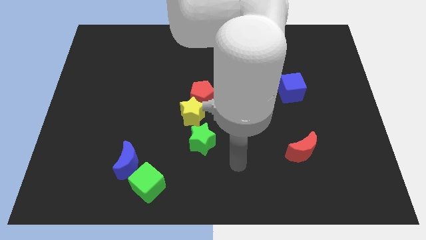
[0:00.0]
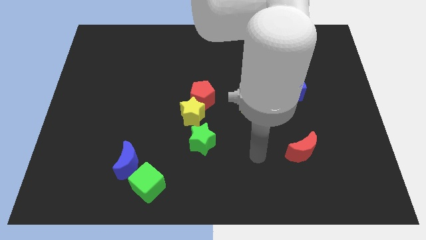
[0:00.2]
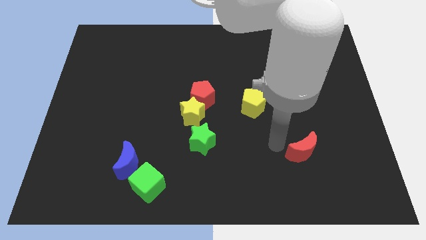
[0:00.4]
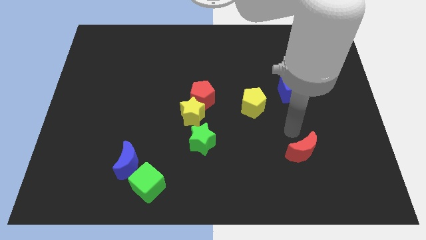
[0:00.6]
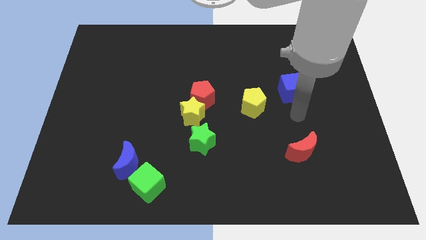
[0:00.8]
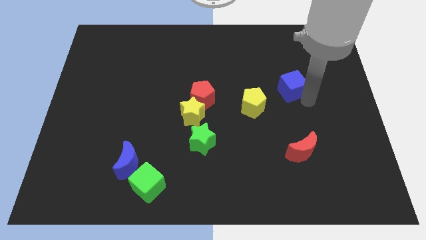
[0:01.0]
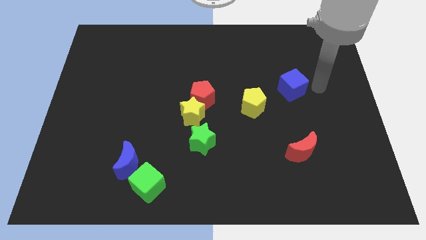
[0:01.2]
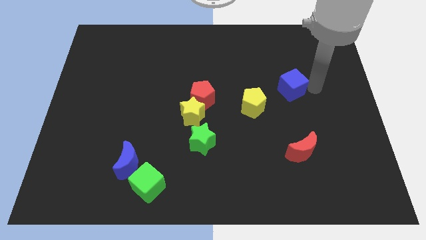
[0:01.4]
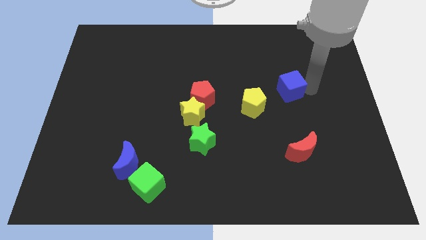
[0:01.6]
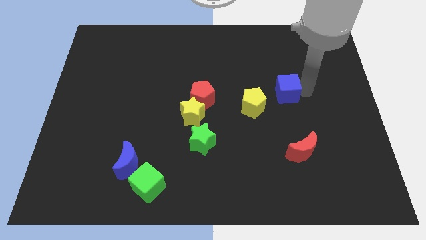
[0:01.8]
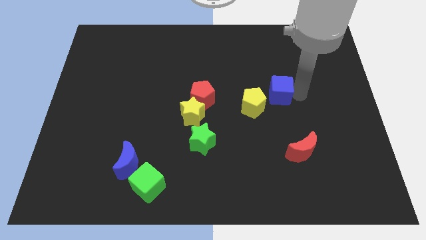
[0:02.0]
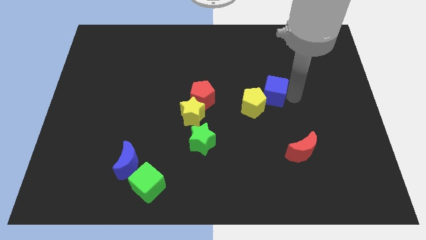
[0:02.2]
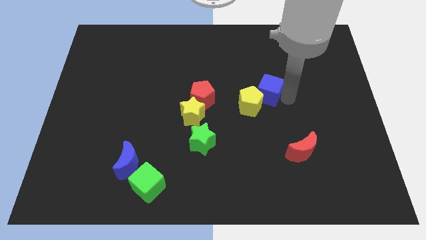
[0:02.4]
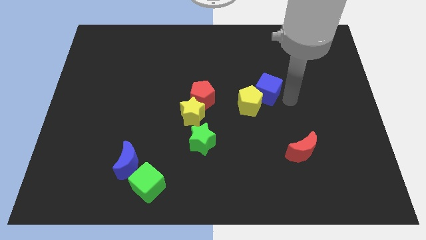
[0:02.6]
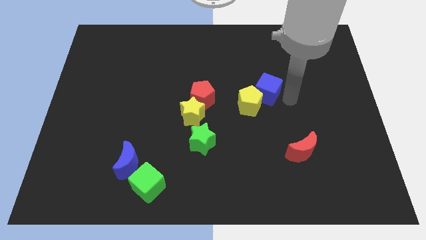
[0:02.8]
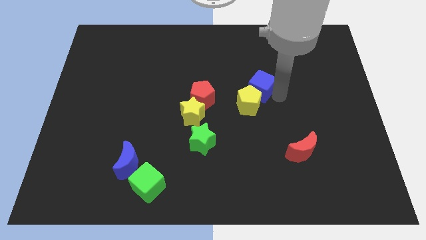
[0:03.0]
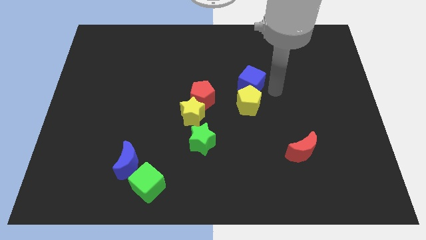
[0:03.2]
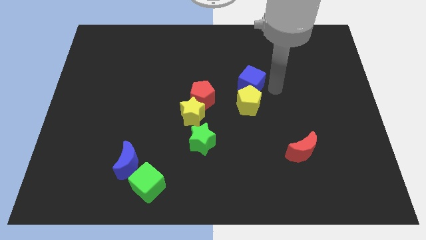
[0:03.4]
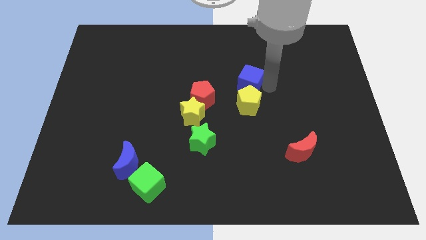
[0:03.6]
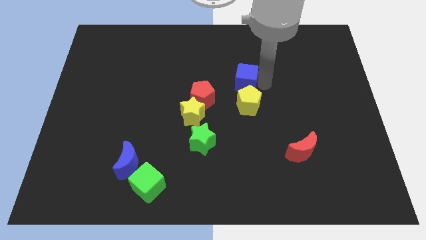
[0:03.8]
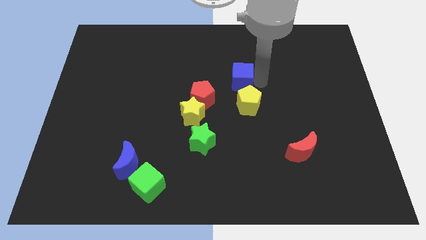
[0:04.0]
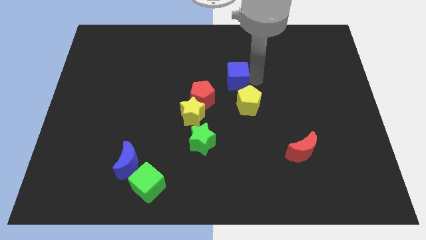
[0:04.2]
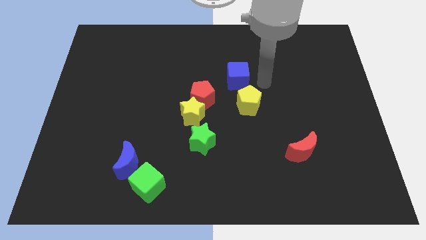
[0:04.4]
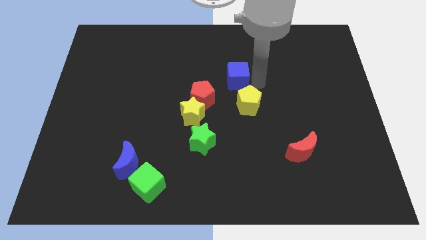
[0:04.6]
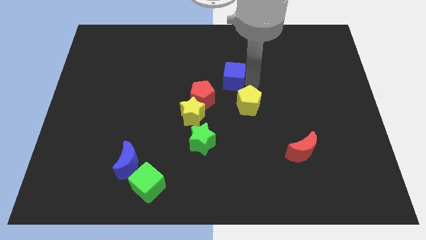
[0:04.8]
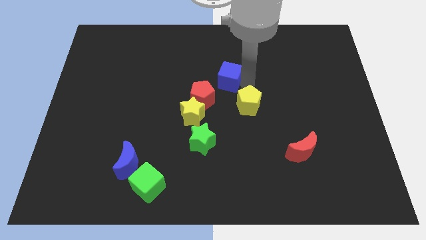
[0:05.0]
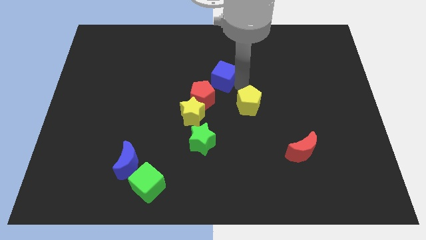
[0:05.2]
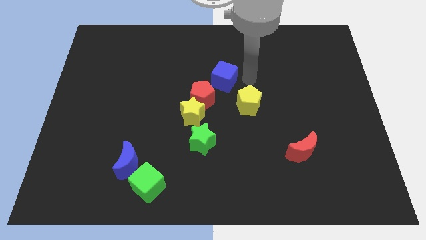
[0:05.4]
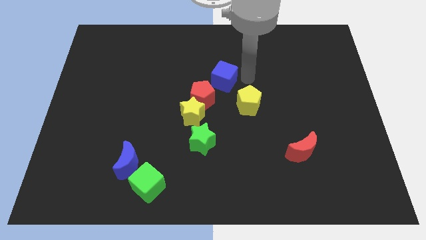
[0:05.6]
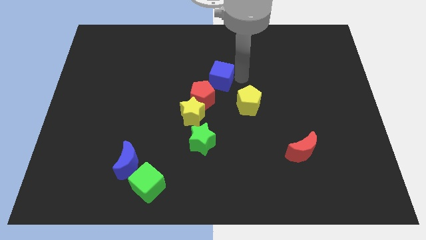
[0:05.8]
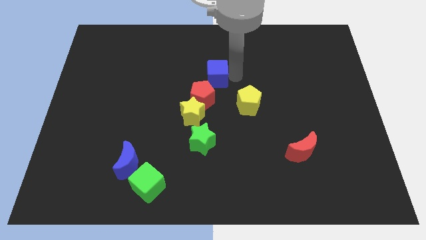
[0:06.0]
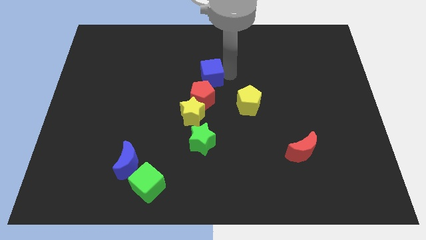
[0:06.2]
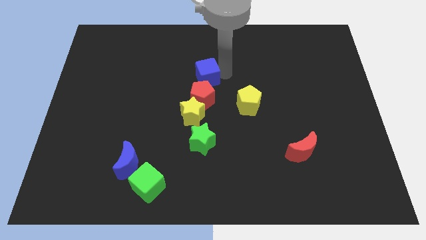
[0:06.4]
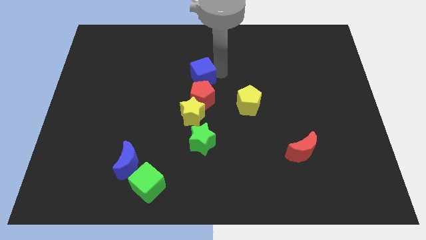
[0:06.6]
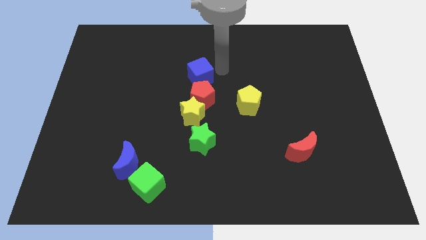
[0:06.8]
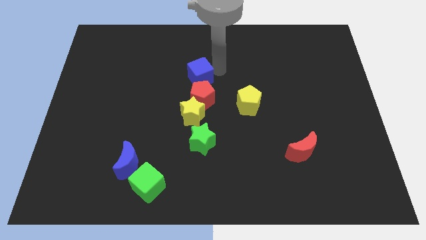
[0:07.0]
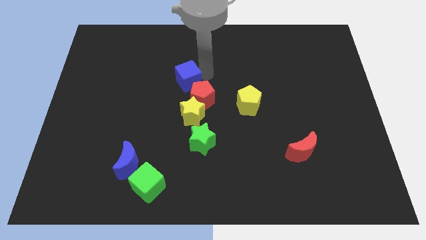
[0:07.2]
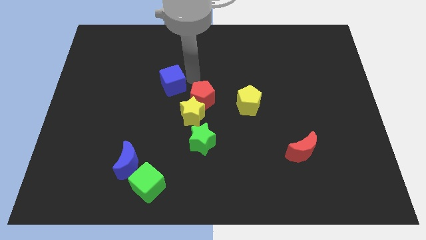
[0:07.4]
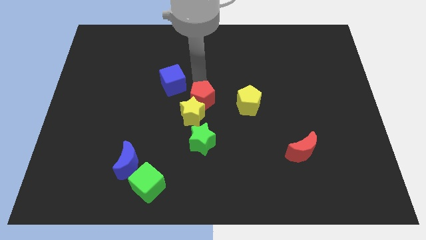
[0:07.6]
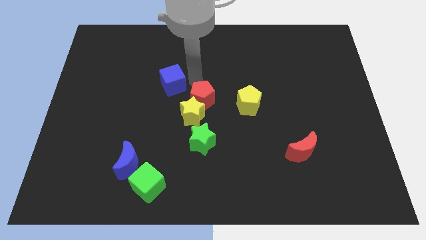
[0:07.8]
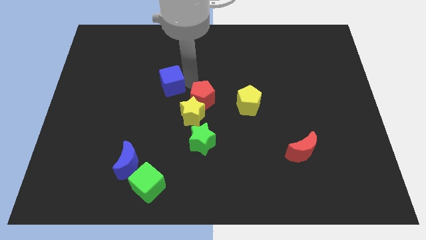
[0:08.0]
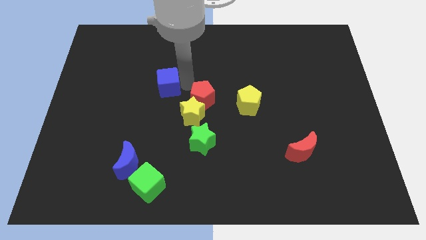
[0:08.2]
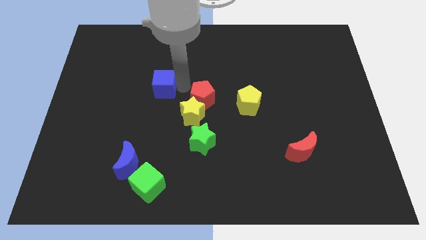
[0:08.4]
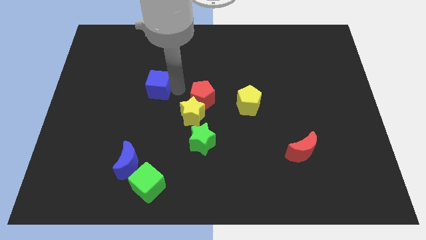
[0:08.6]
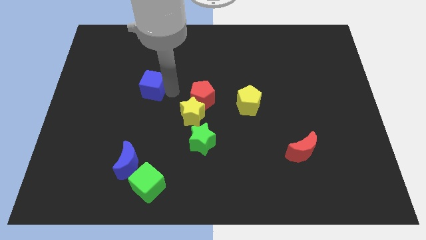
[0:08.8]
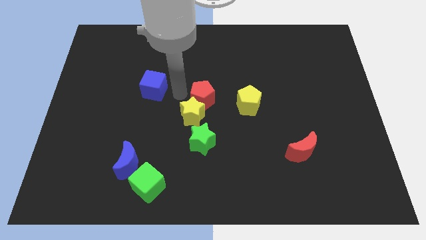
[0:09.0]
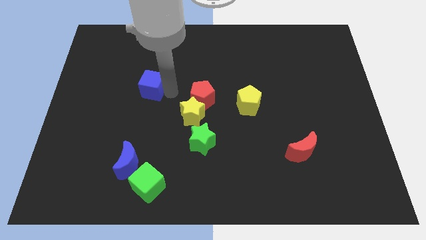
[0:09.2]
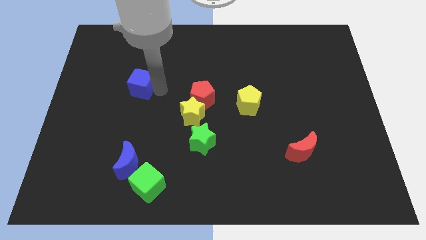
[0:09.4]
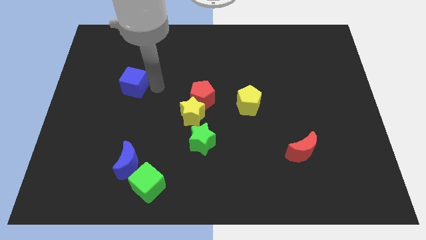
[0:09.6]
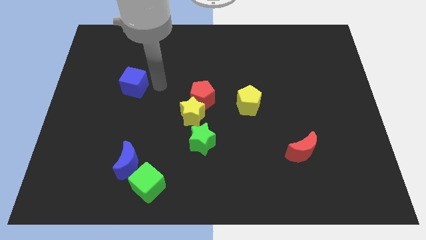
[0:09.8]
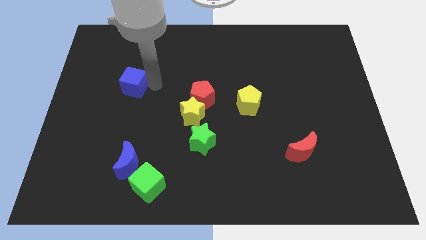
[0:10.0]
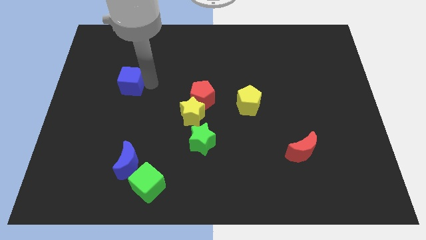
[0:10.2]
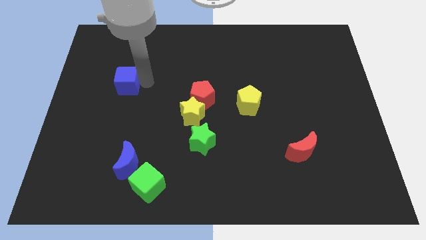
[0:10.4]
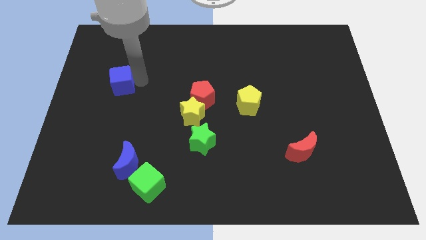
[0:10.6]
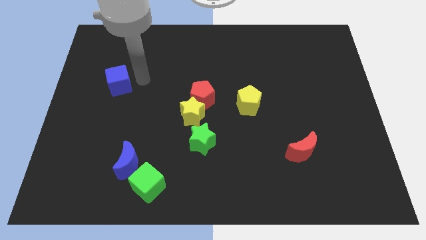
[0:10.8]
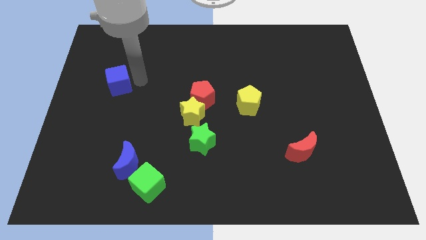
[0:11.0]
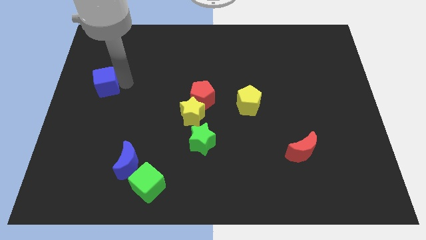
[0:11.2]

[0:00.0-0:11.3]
move the blue cube to the left side of the board
